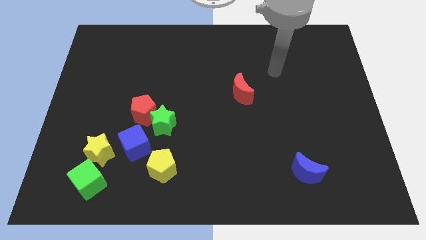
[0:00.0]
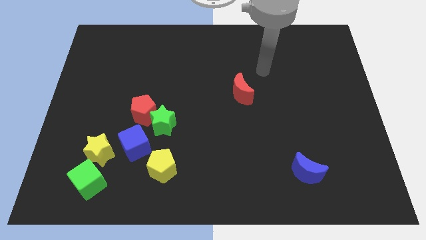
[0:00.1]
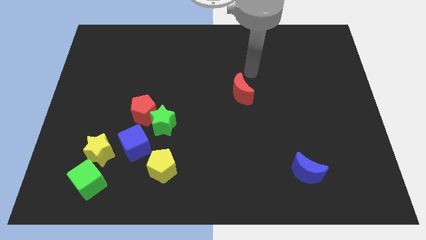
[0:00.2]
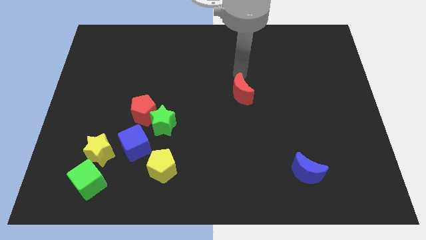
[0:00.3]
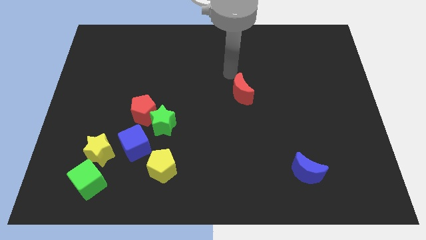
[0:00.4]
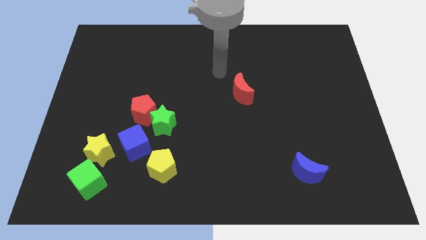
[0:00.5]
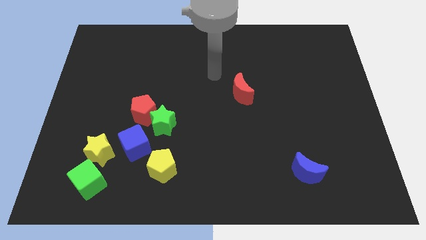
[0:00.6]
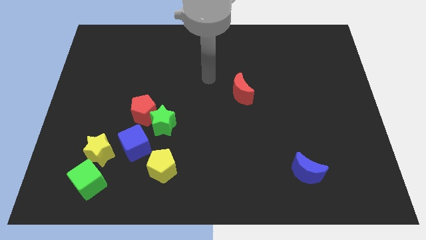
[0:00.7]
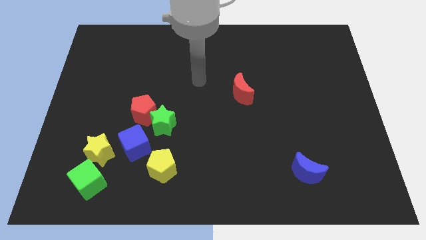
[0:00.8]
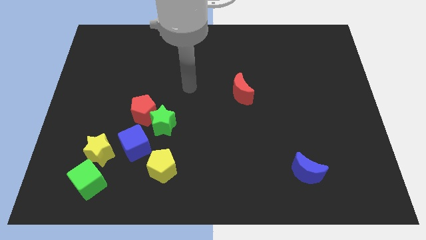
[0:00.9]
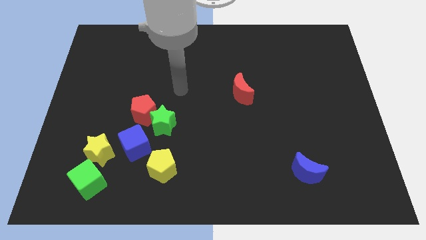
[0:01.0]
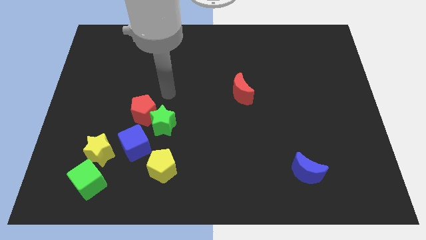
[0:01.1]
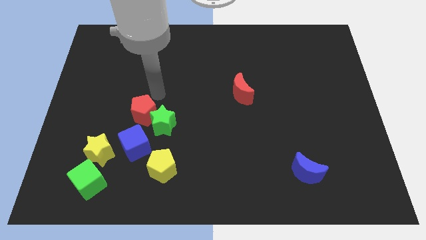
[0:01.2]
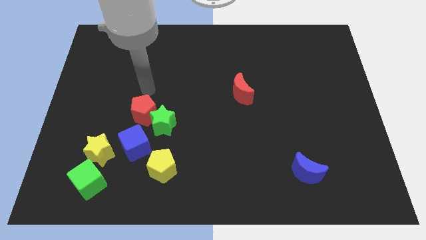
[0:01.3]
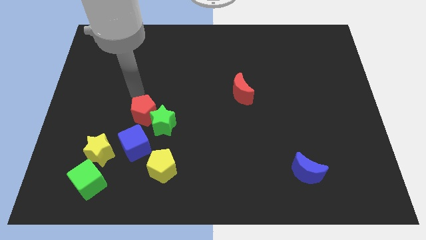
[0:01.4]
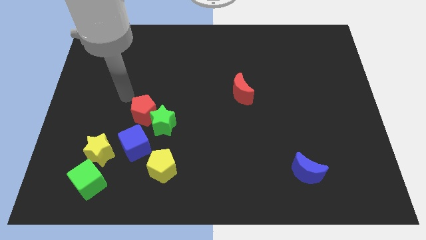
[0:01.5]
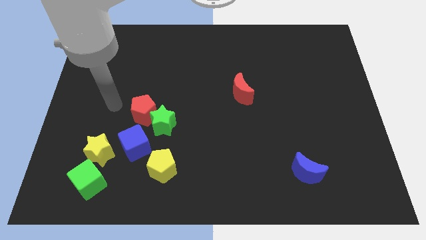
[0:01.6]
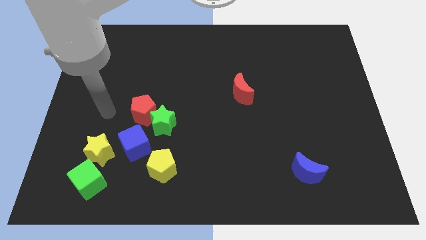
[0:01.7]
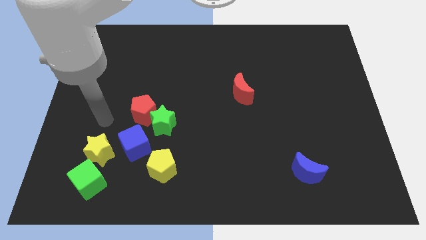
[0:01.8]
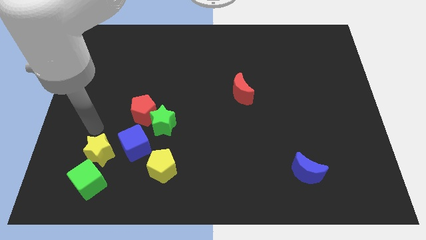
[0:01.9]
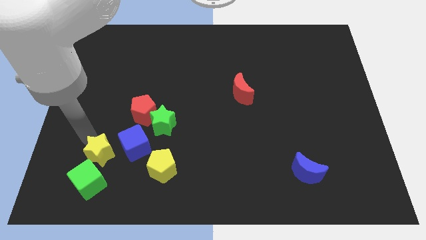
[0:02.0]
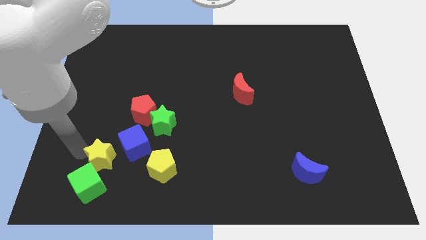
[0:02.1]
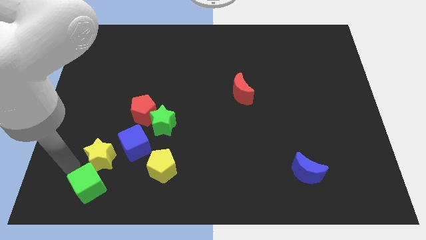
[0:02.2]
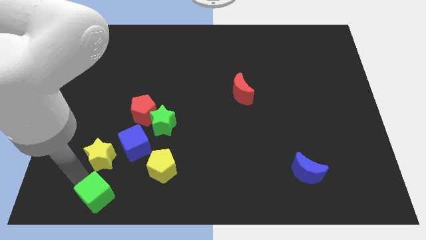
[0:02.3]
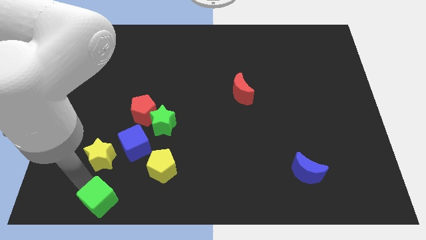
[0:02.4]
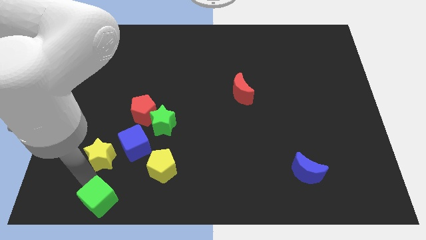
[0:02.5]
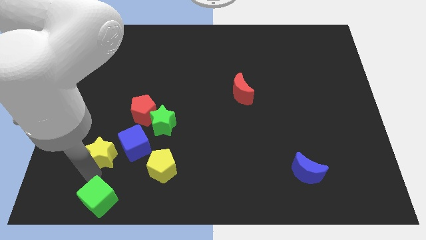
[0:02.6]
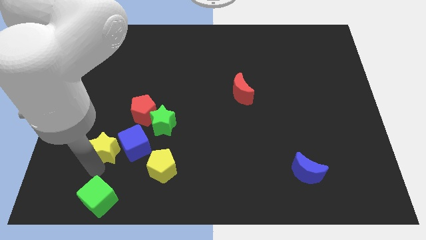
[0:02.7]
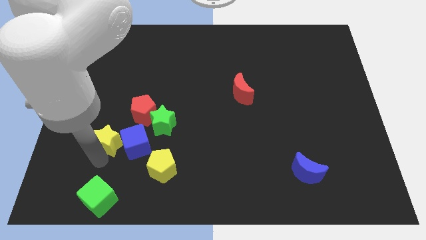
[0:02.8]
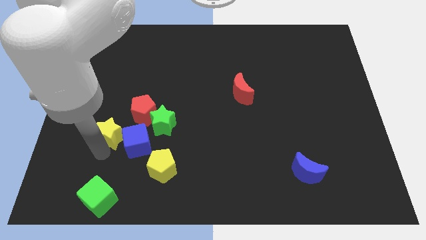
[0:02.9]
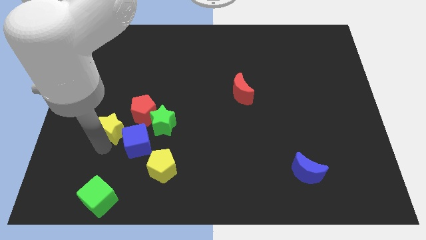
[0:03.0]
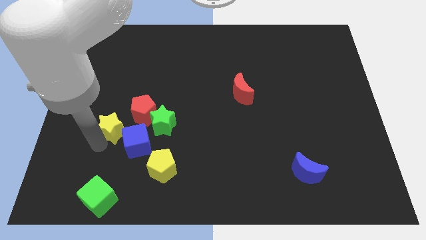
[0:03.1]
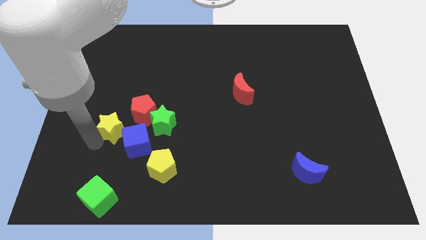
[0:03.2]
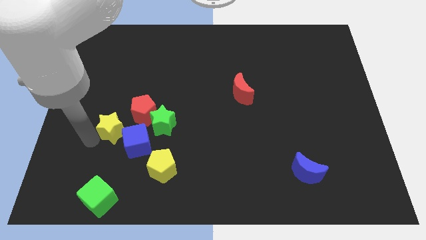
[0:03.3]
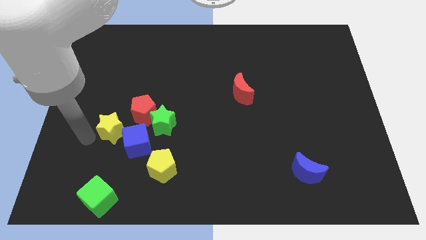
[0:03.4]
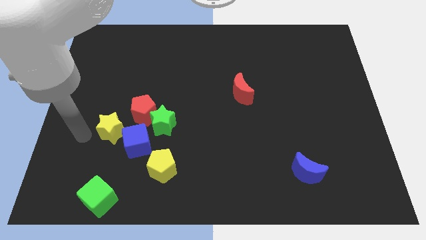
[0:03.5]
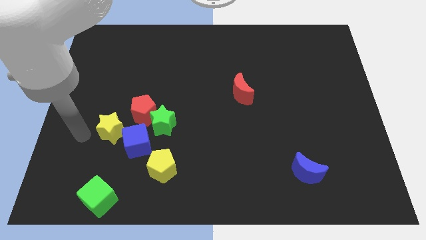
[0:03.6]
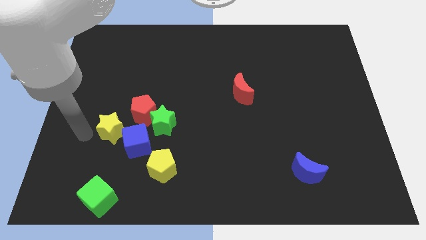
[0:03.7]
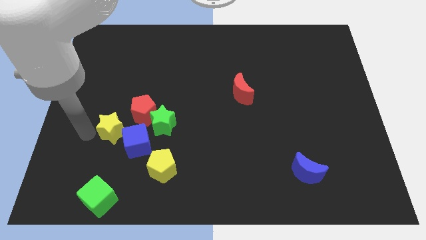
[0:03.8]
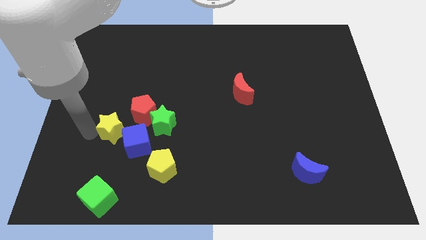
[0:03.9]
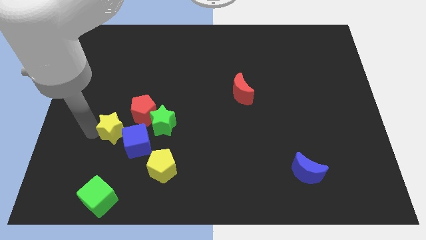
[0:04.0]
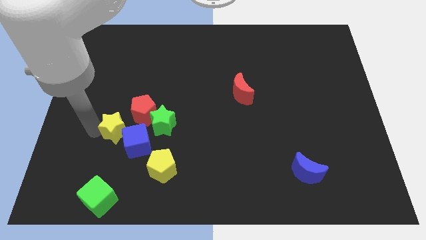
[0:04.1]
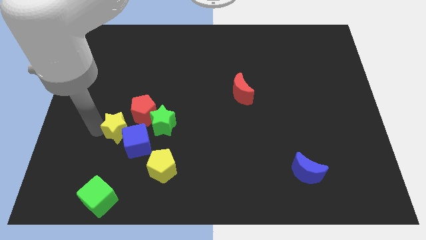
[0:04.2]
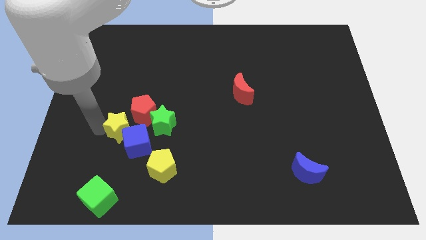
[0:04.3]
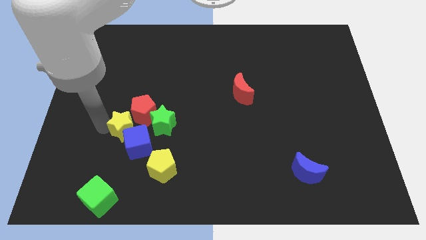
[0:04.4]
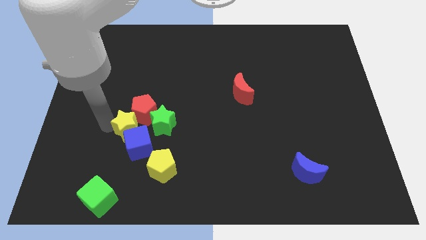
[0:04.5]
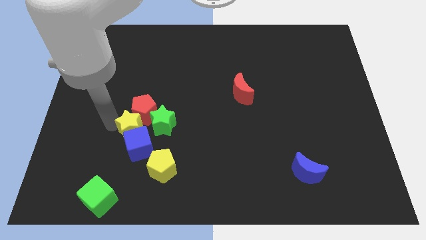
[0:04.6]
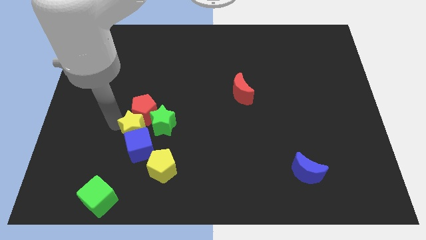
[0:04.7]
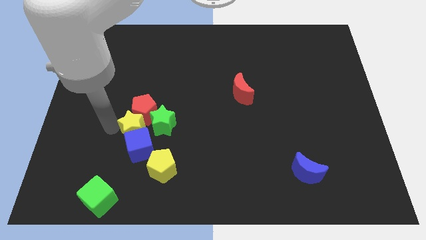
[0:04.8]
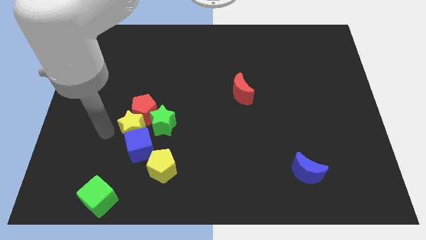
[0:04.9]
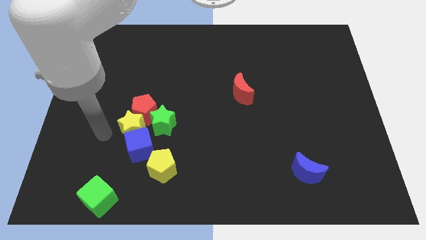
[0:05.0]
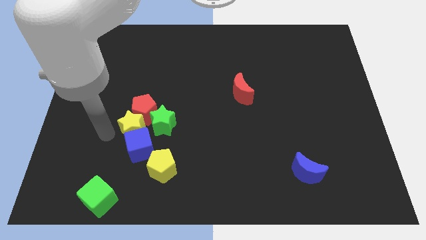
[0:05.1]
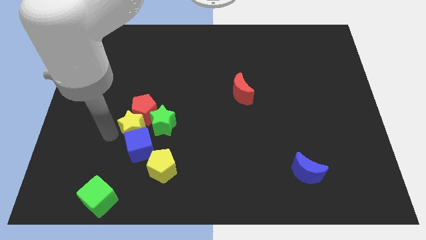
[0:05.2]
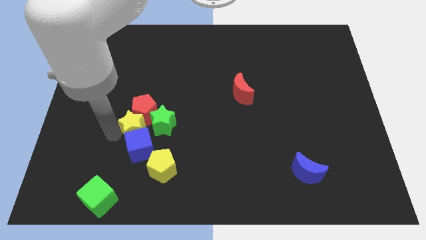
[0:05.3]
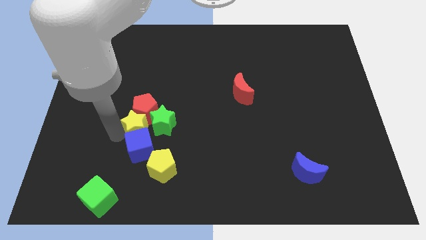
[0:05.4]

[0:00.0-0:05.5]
move the yellow star next to the green star

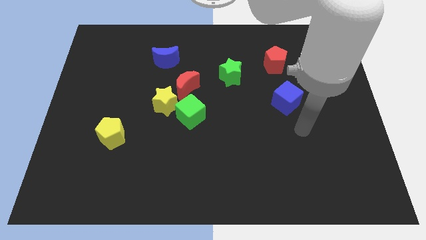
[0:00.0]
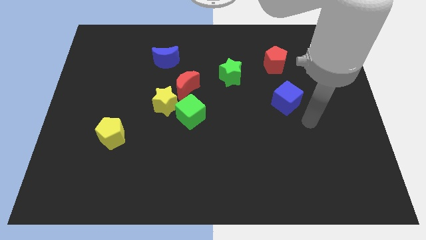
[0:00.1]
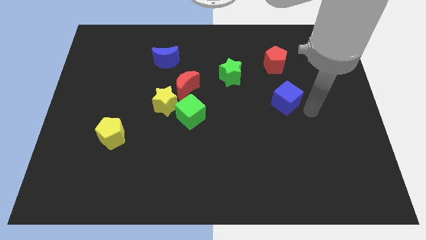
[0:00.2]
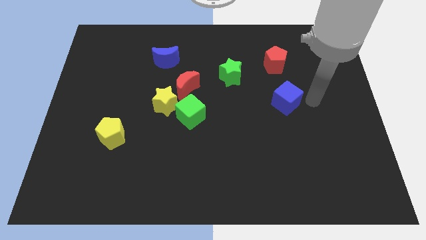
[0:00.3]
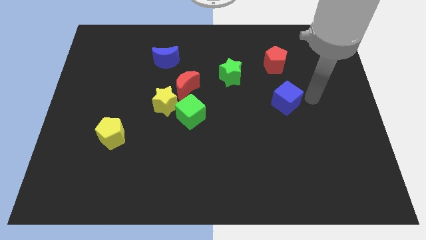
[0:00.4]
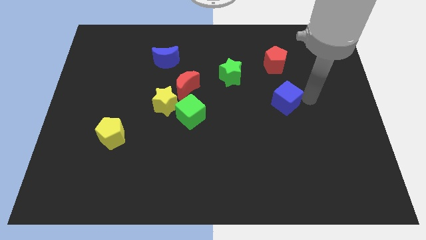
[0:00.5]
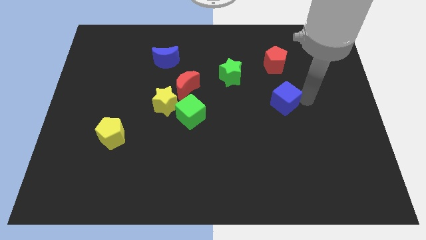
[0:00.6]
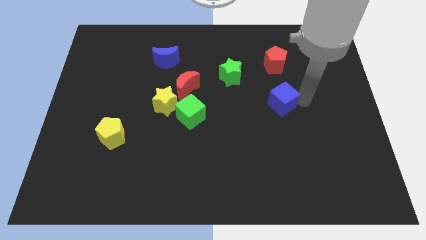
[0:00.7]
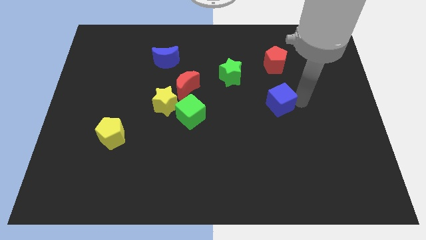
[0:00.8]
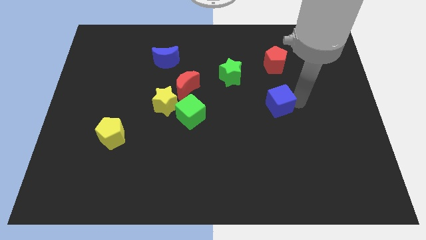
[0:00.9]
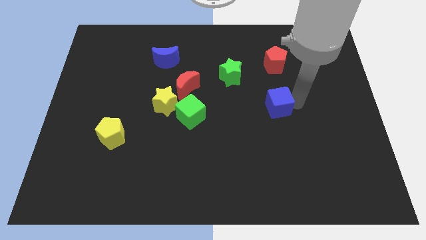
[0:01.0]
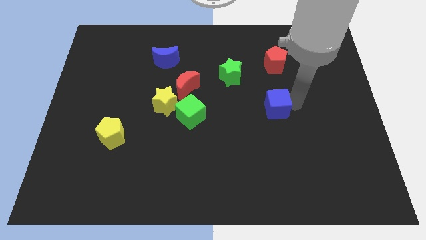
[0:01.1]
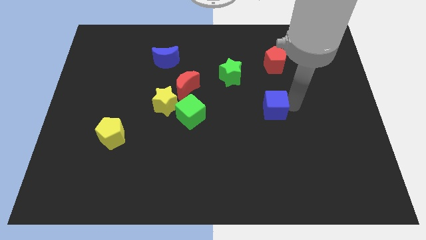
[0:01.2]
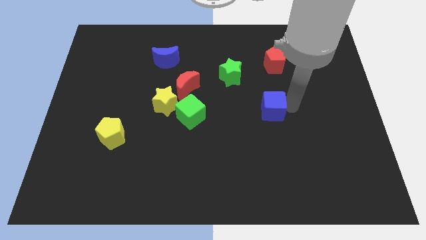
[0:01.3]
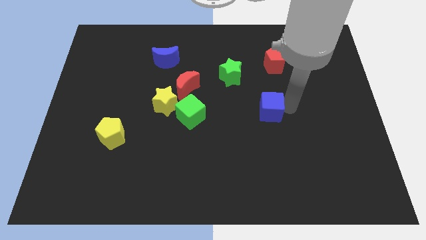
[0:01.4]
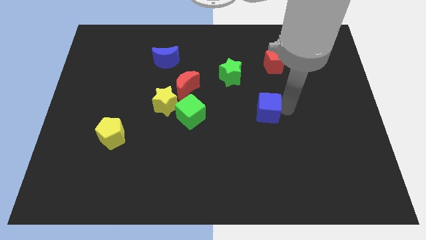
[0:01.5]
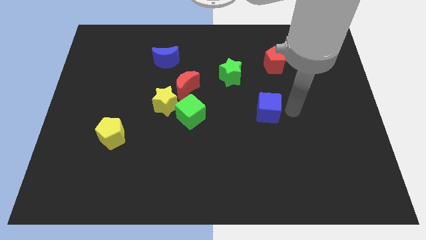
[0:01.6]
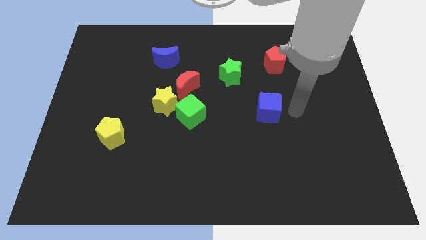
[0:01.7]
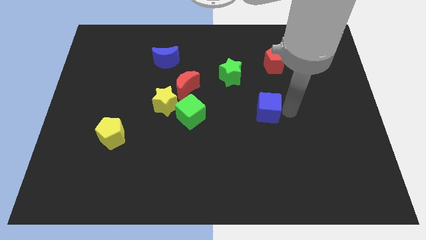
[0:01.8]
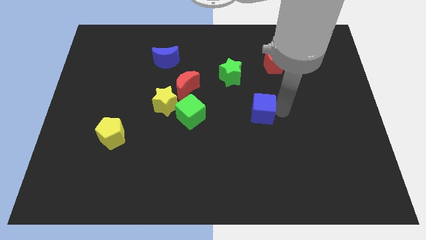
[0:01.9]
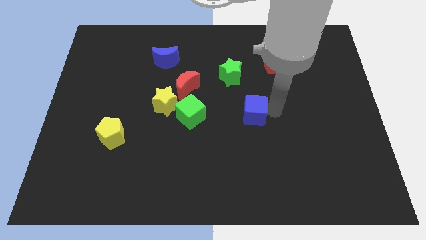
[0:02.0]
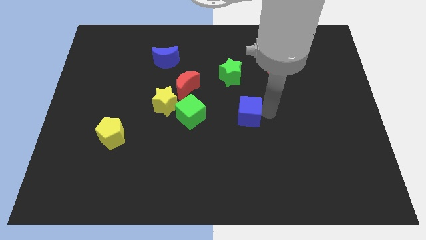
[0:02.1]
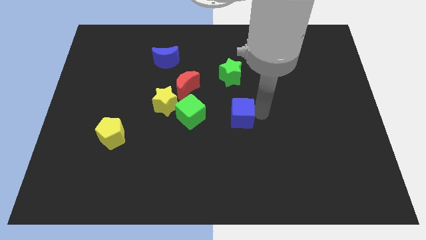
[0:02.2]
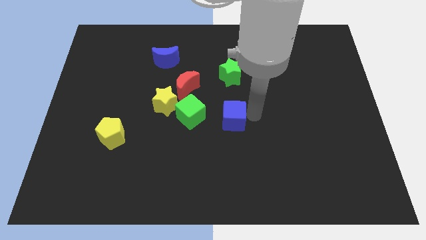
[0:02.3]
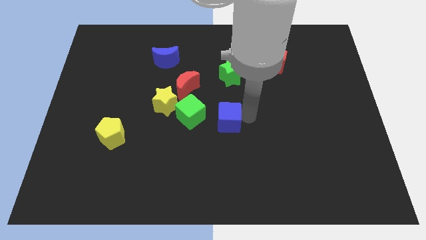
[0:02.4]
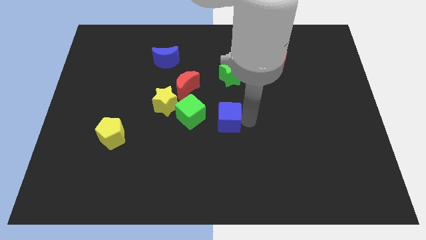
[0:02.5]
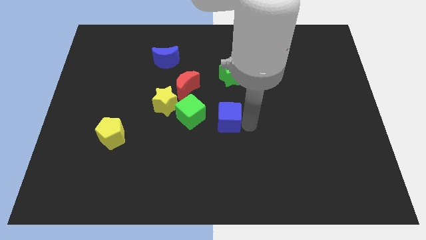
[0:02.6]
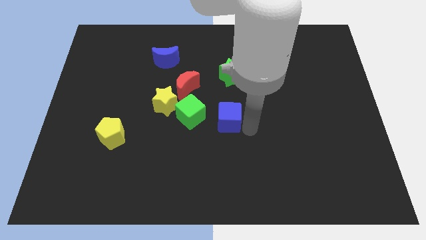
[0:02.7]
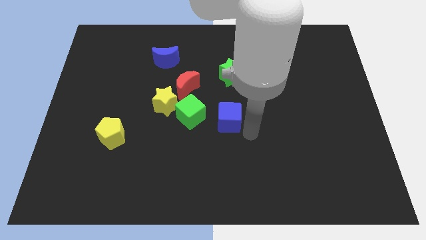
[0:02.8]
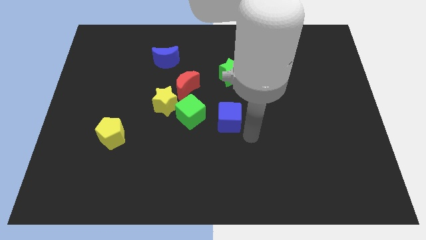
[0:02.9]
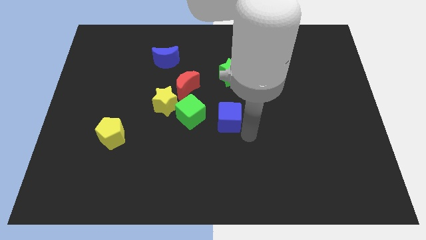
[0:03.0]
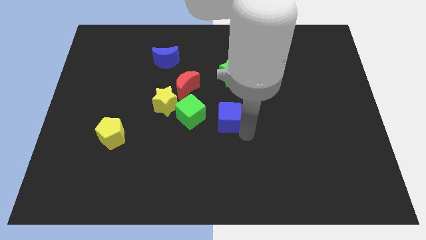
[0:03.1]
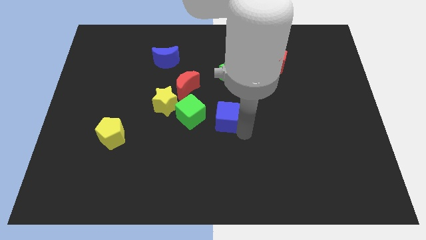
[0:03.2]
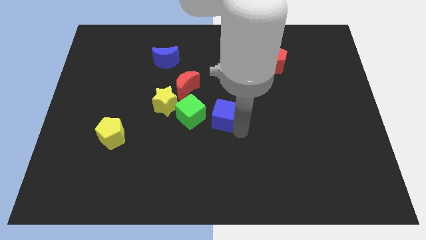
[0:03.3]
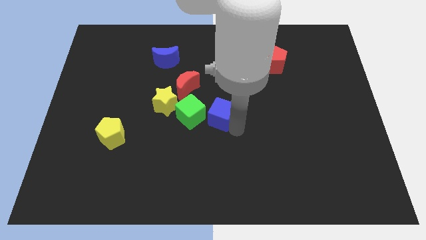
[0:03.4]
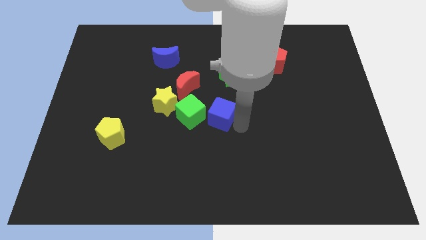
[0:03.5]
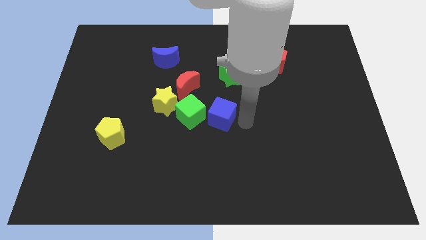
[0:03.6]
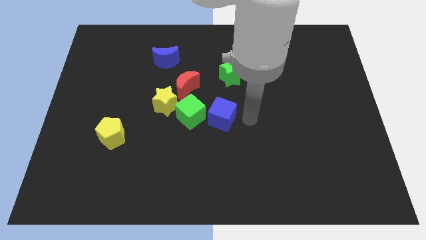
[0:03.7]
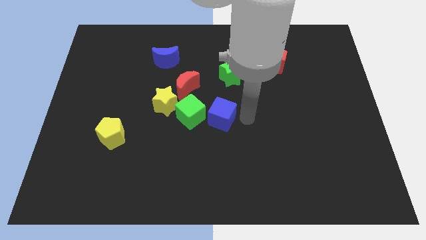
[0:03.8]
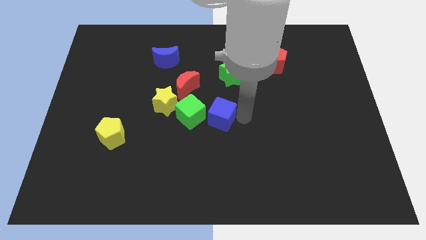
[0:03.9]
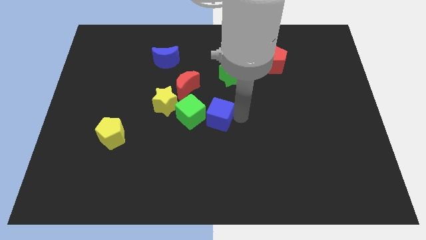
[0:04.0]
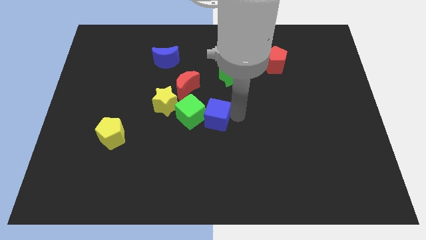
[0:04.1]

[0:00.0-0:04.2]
put the blue cube next to the green cube
